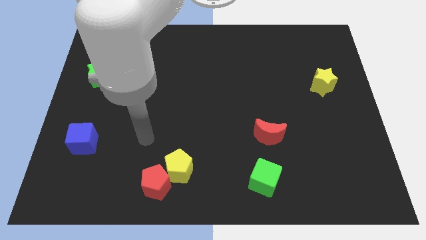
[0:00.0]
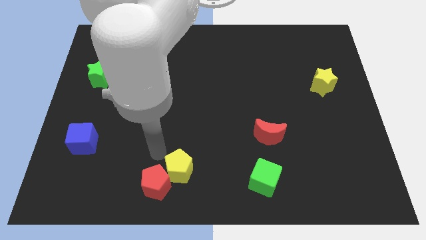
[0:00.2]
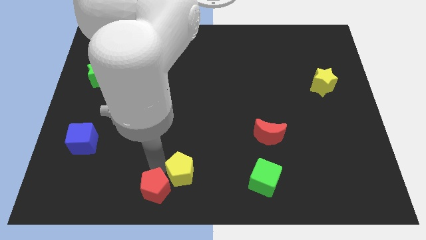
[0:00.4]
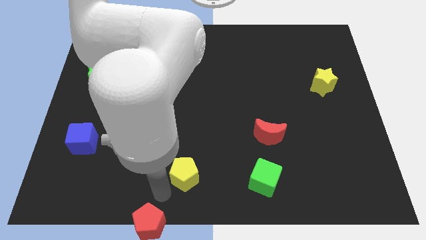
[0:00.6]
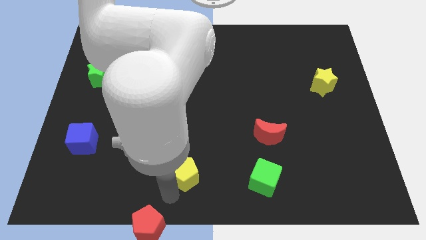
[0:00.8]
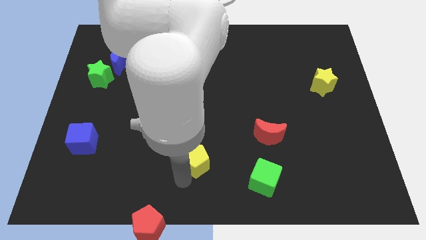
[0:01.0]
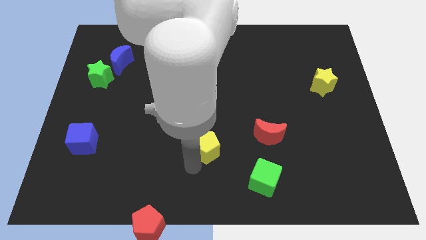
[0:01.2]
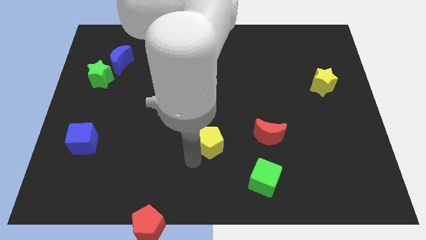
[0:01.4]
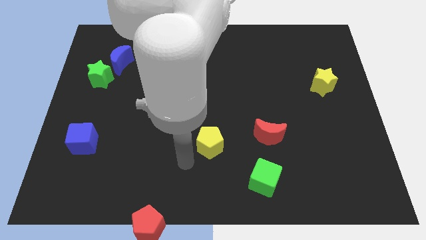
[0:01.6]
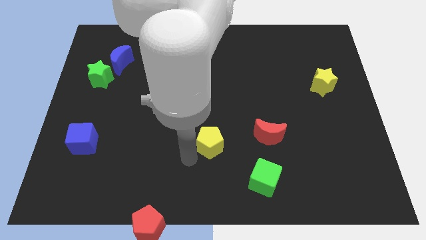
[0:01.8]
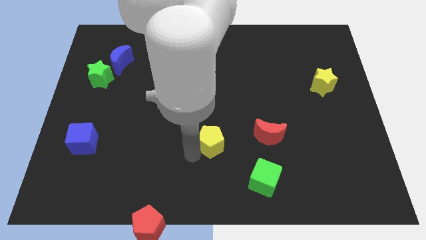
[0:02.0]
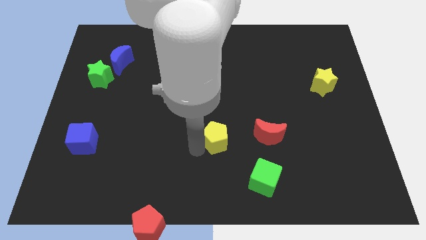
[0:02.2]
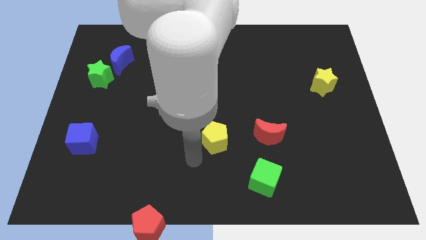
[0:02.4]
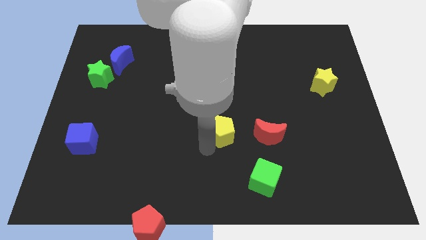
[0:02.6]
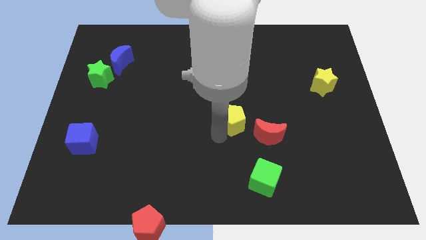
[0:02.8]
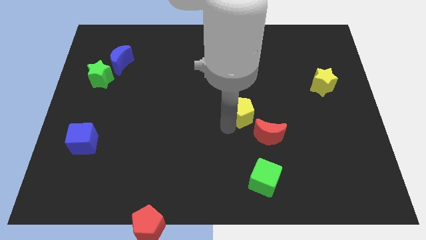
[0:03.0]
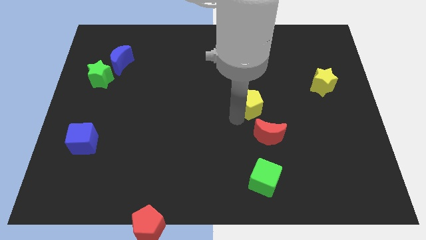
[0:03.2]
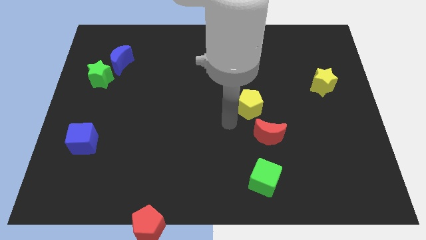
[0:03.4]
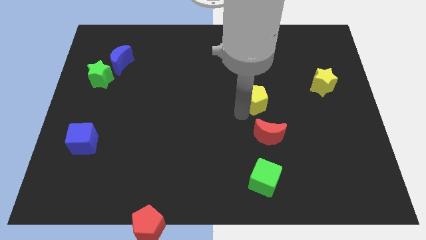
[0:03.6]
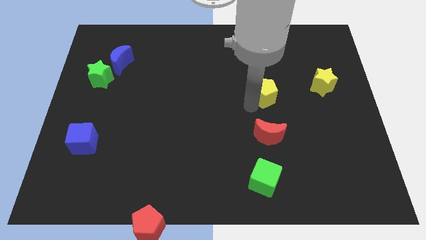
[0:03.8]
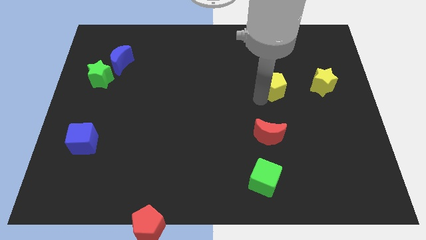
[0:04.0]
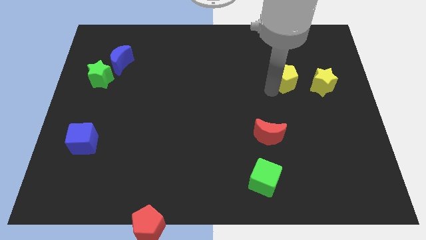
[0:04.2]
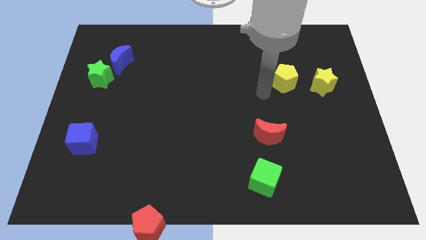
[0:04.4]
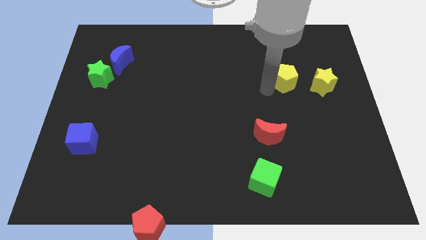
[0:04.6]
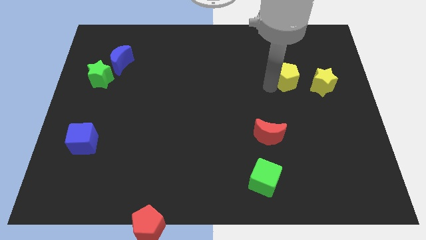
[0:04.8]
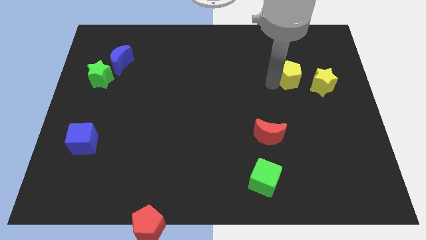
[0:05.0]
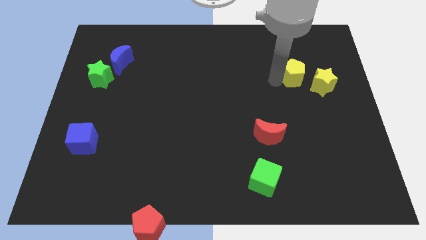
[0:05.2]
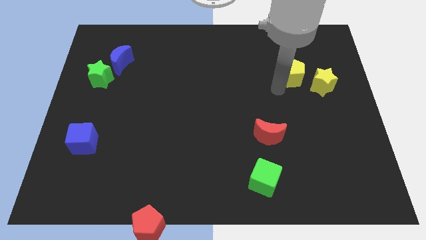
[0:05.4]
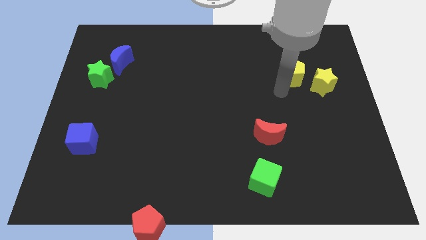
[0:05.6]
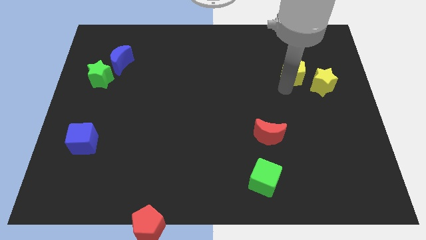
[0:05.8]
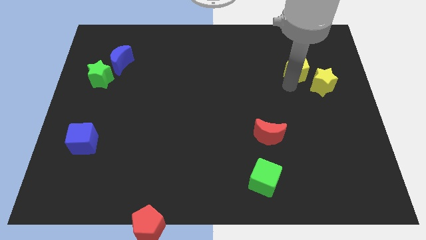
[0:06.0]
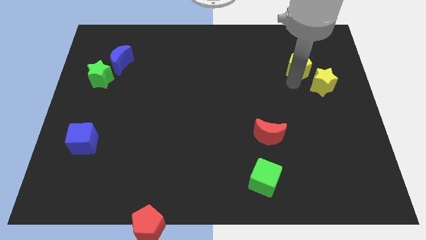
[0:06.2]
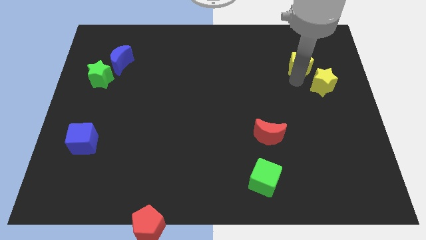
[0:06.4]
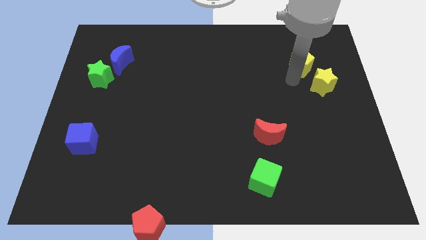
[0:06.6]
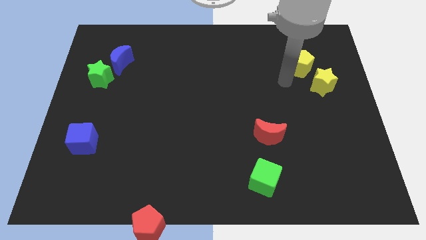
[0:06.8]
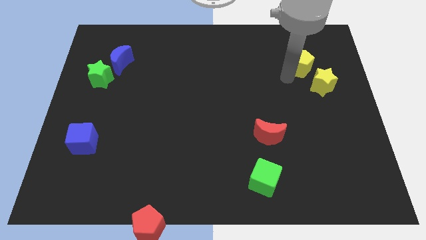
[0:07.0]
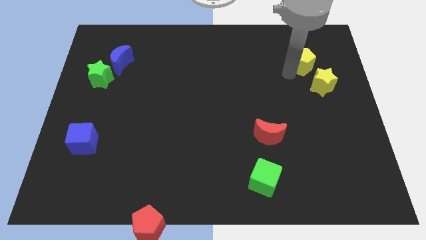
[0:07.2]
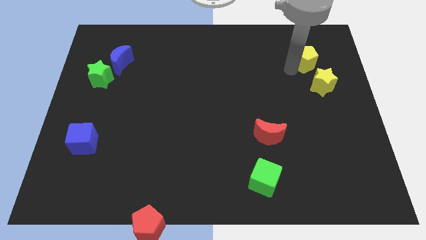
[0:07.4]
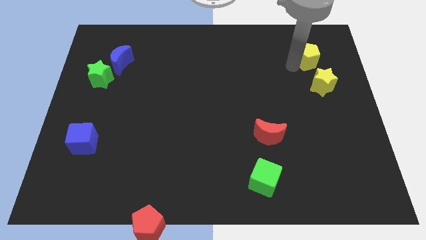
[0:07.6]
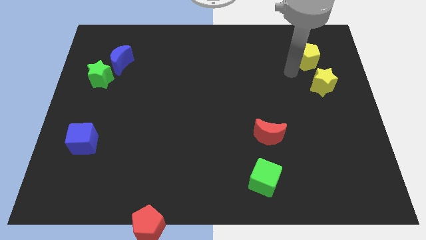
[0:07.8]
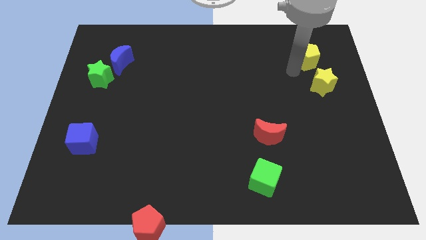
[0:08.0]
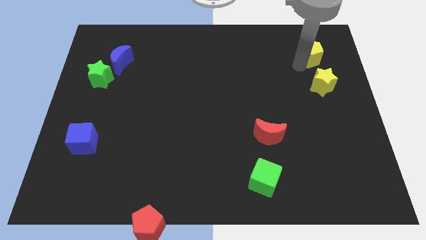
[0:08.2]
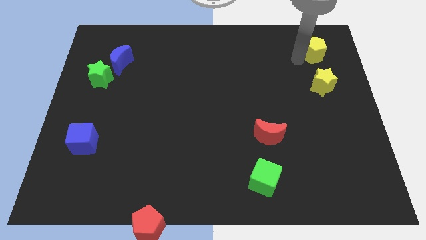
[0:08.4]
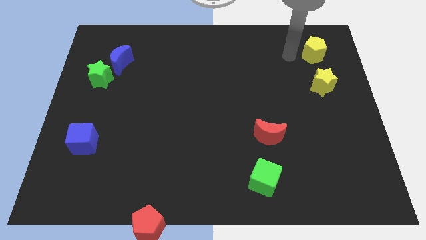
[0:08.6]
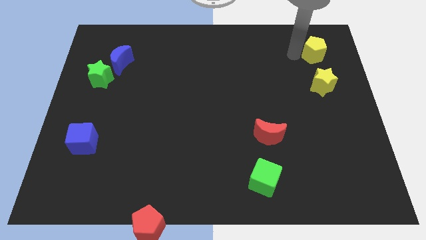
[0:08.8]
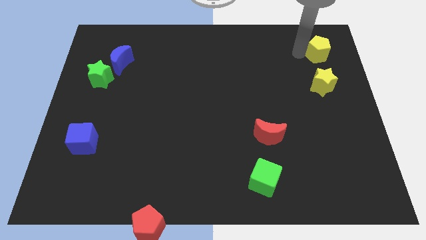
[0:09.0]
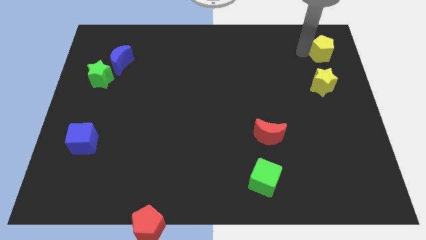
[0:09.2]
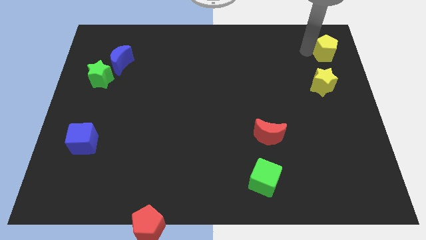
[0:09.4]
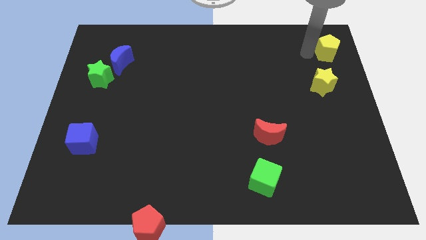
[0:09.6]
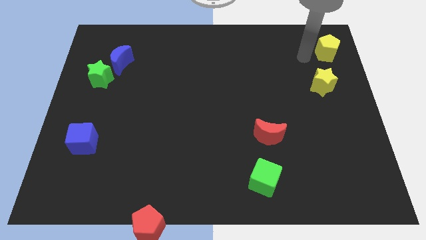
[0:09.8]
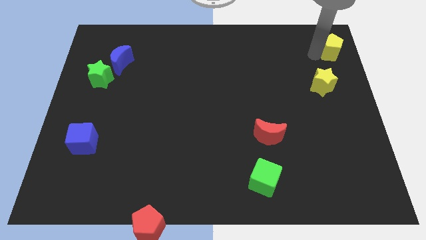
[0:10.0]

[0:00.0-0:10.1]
slide the yellow pentagon to the upper right corner

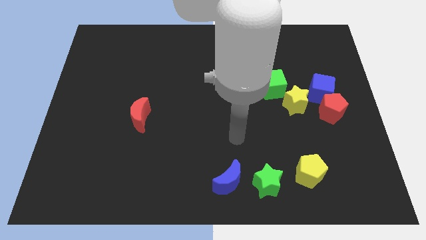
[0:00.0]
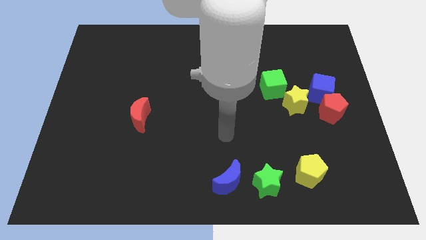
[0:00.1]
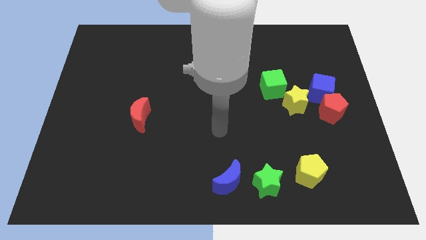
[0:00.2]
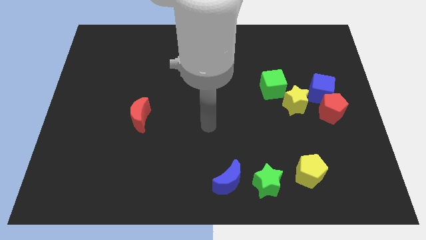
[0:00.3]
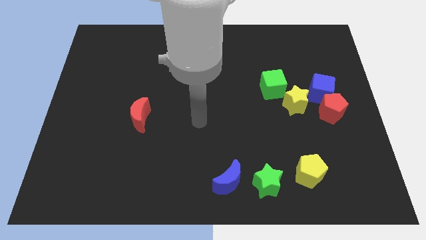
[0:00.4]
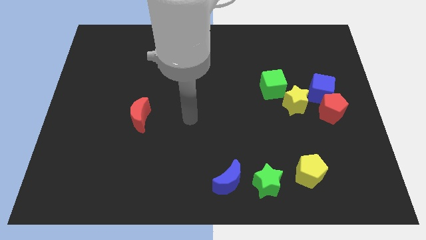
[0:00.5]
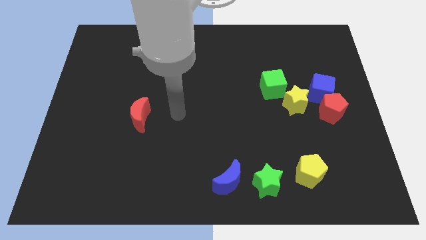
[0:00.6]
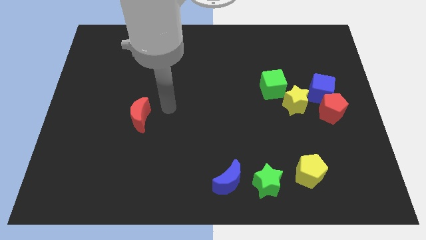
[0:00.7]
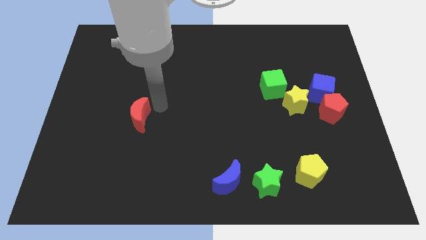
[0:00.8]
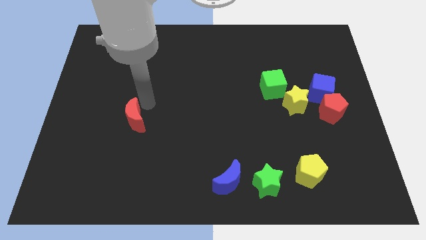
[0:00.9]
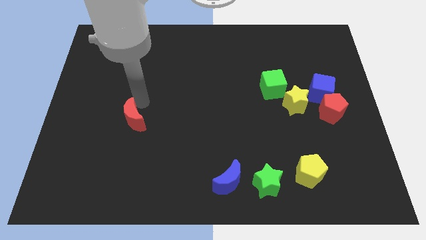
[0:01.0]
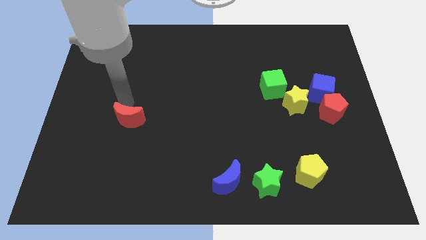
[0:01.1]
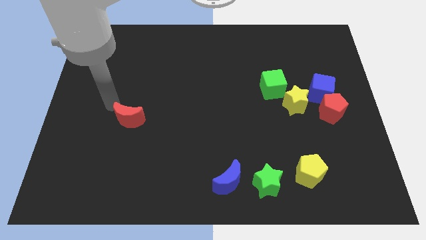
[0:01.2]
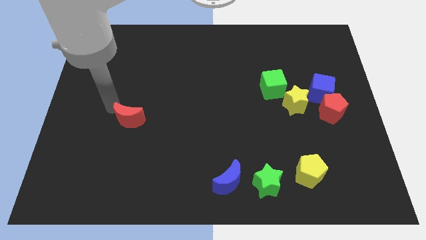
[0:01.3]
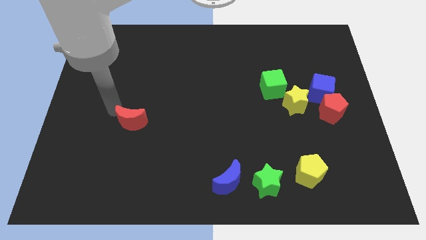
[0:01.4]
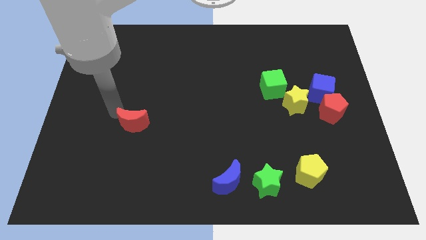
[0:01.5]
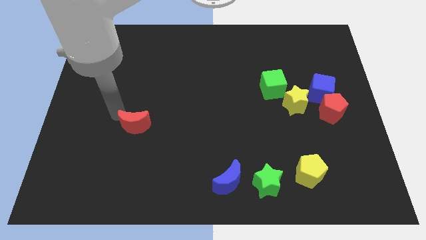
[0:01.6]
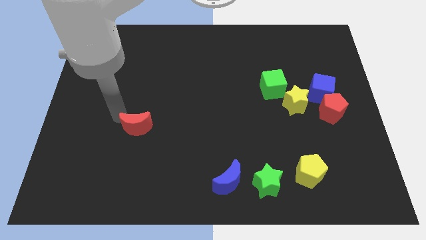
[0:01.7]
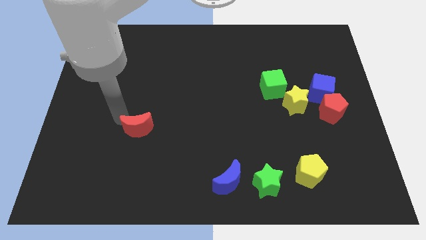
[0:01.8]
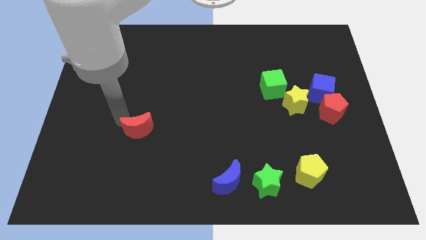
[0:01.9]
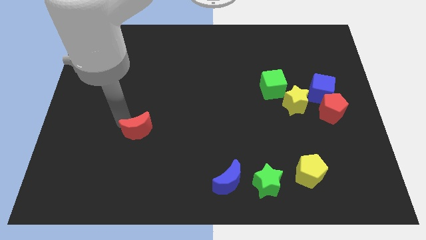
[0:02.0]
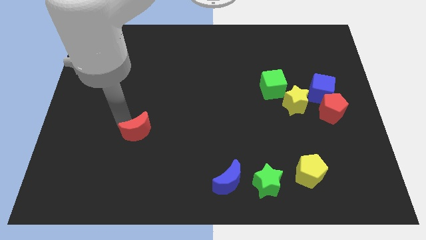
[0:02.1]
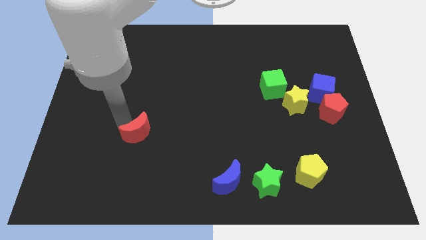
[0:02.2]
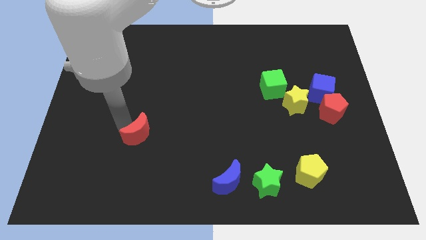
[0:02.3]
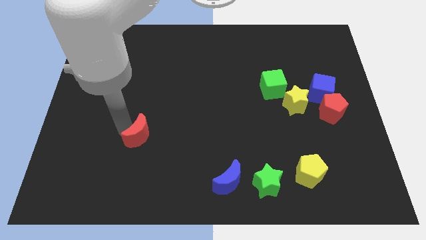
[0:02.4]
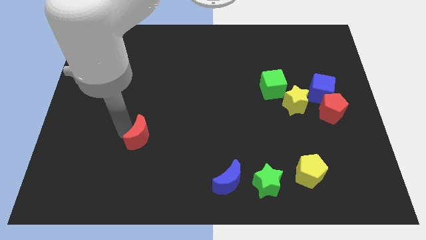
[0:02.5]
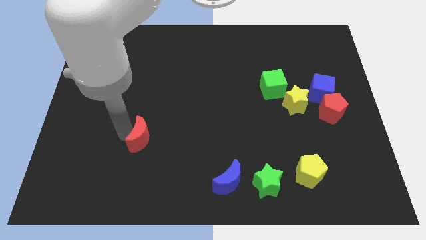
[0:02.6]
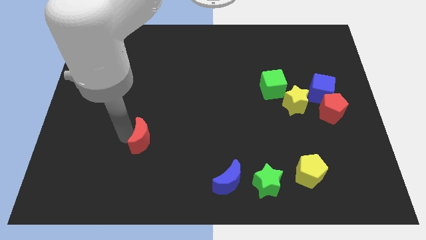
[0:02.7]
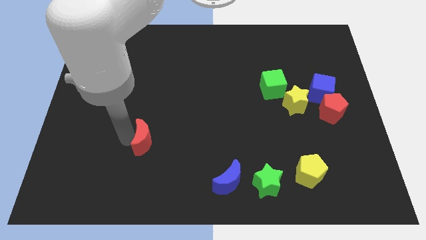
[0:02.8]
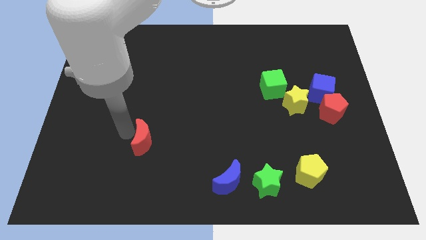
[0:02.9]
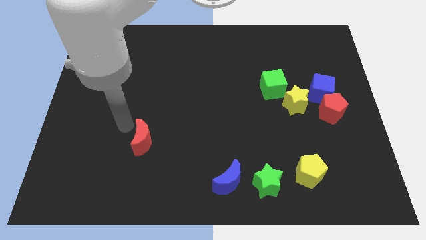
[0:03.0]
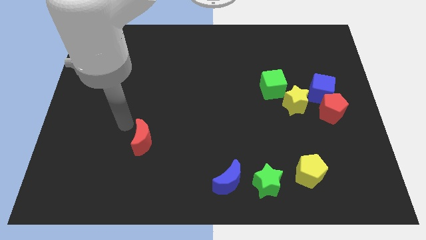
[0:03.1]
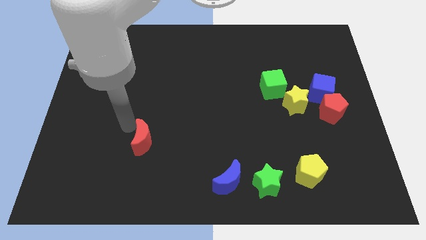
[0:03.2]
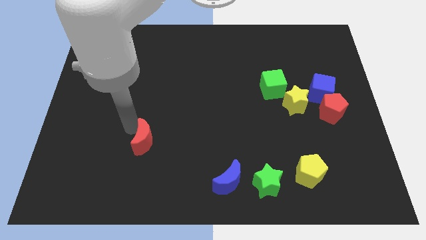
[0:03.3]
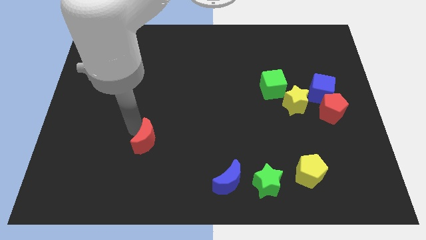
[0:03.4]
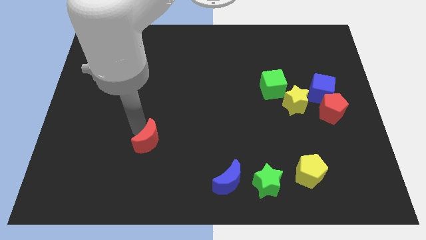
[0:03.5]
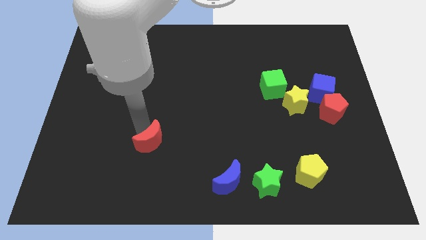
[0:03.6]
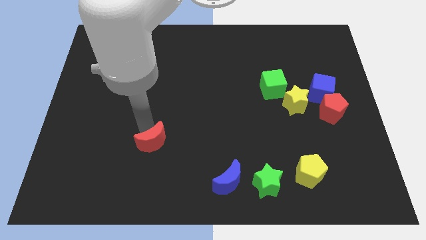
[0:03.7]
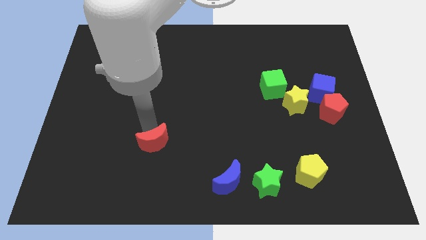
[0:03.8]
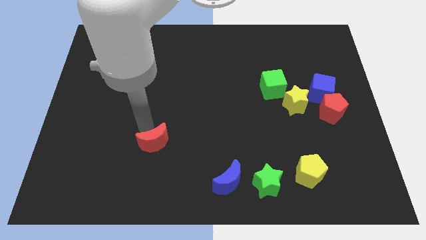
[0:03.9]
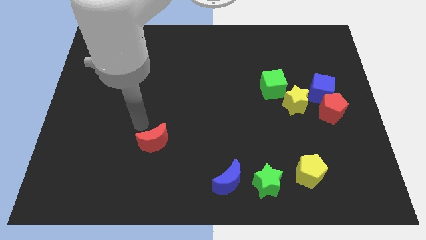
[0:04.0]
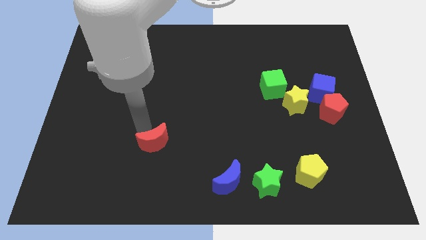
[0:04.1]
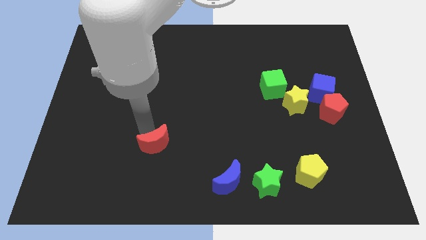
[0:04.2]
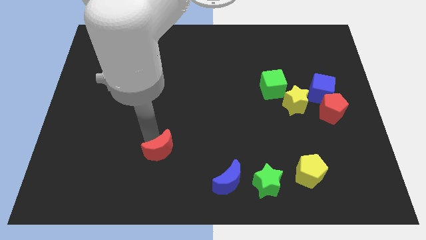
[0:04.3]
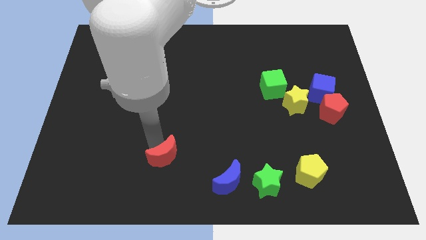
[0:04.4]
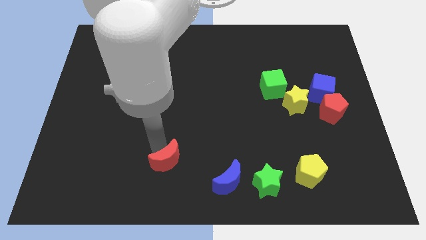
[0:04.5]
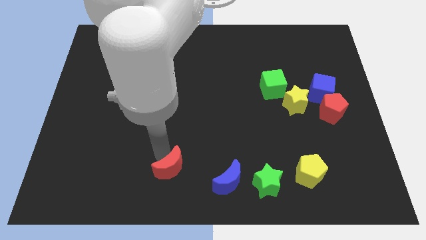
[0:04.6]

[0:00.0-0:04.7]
slide the red moon to the bottom
